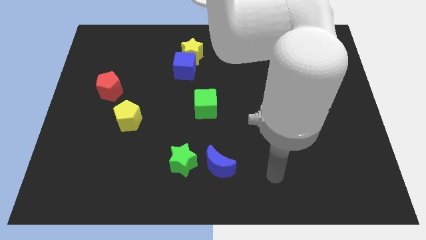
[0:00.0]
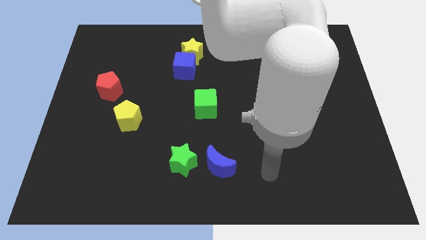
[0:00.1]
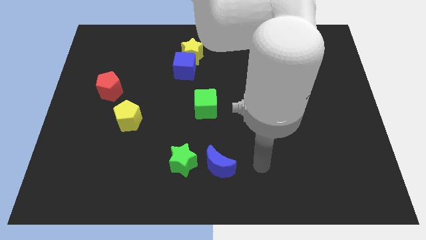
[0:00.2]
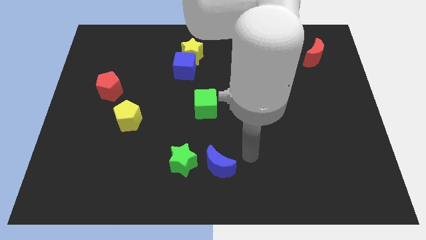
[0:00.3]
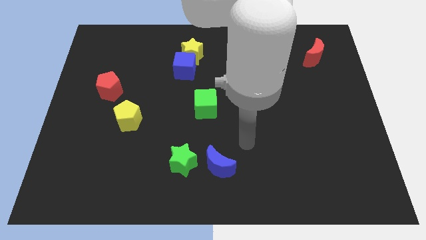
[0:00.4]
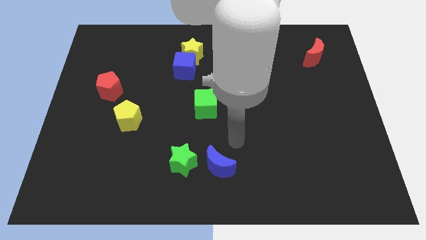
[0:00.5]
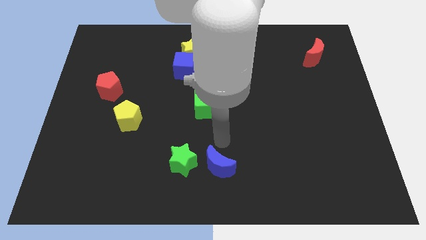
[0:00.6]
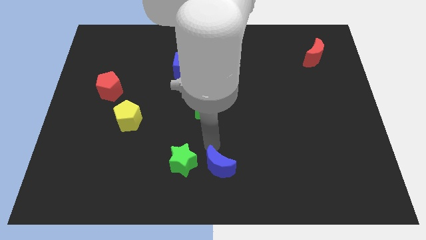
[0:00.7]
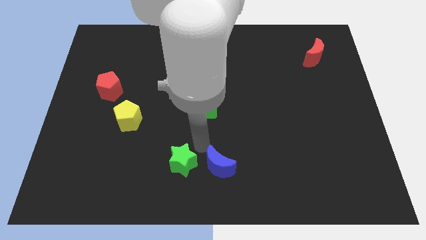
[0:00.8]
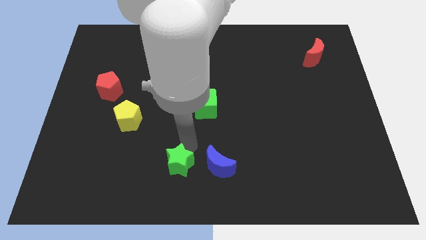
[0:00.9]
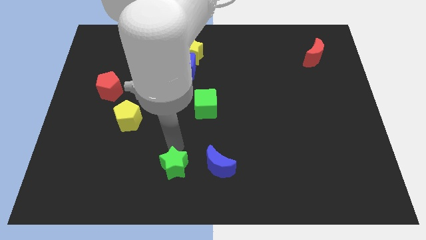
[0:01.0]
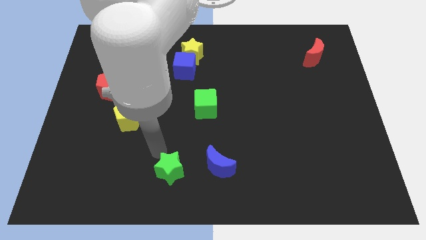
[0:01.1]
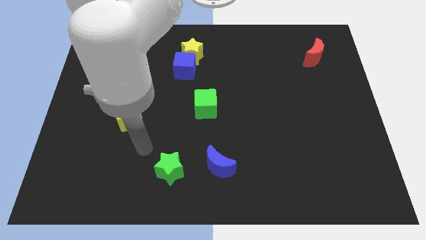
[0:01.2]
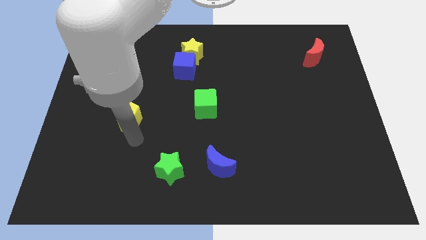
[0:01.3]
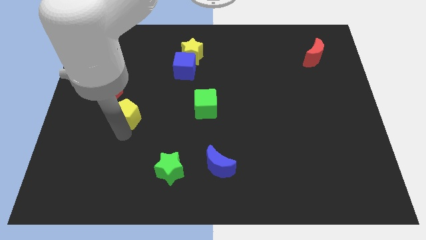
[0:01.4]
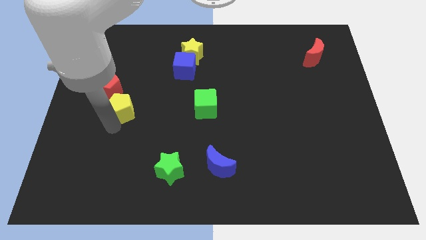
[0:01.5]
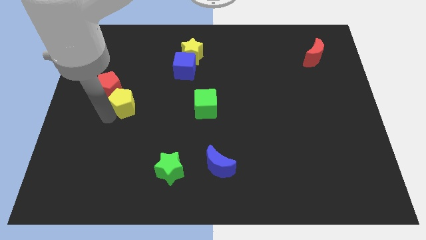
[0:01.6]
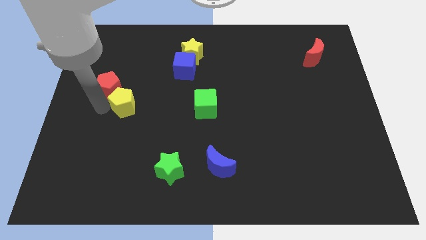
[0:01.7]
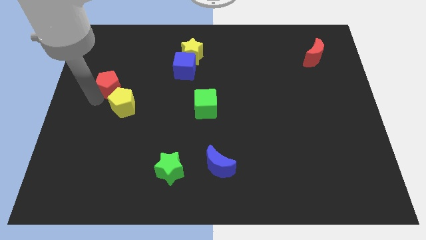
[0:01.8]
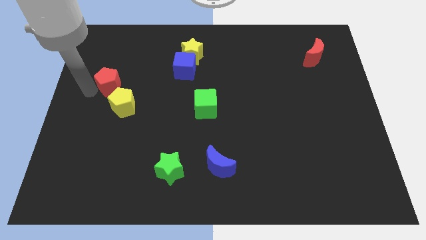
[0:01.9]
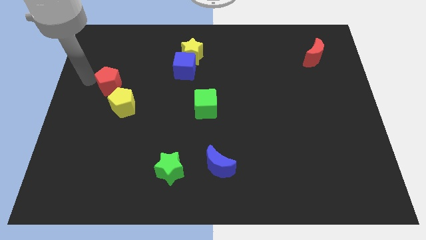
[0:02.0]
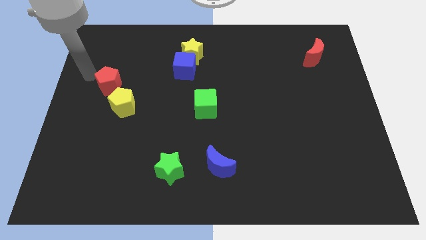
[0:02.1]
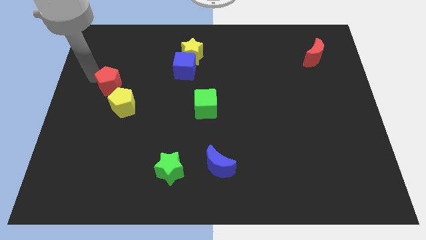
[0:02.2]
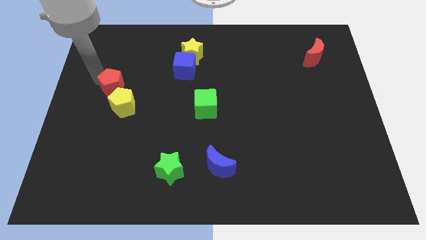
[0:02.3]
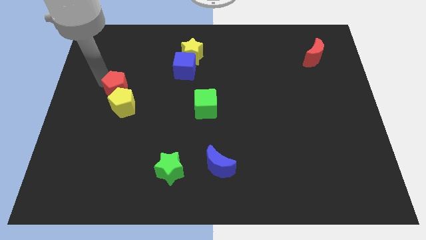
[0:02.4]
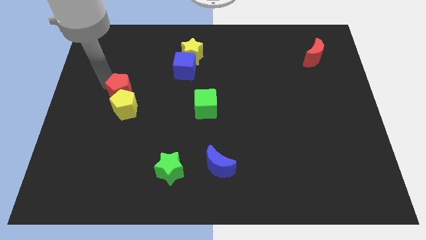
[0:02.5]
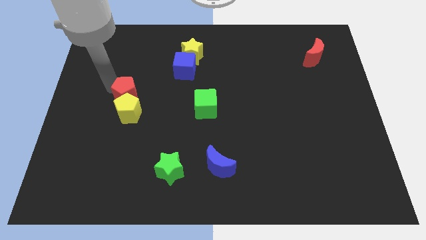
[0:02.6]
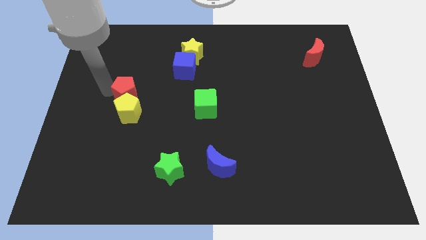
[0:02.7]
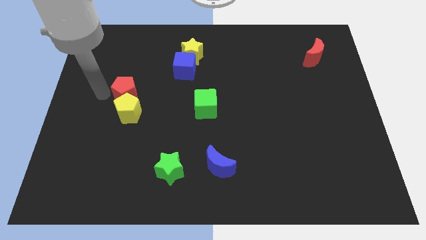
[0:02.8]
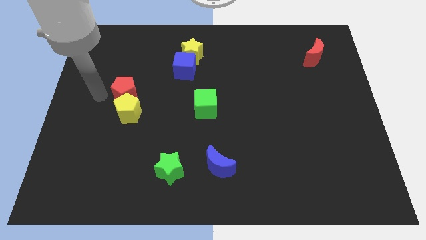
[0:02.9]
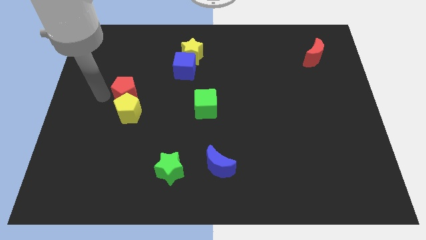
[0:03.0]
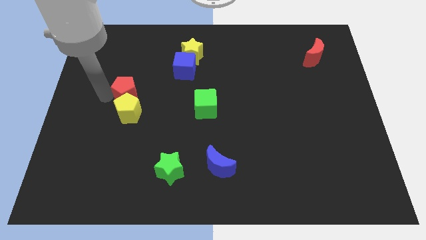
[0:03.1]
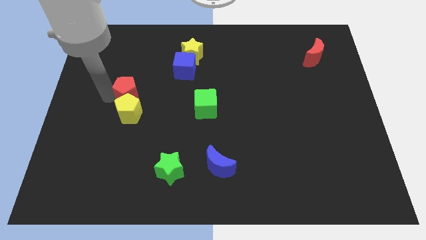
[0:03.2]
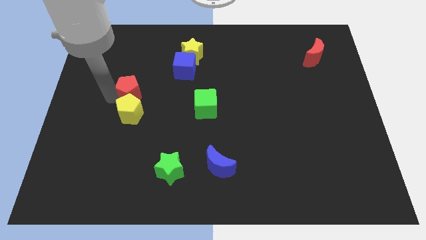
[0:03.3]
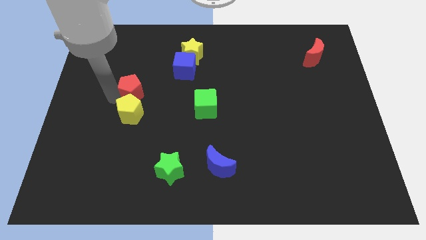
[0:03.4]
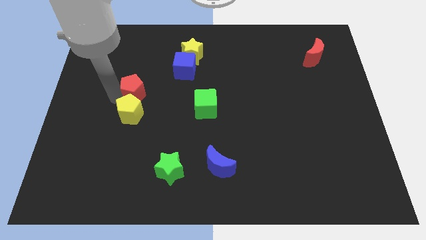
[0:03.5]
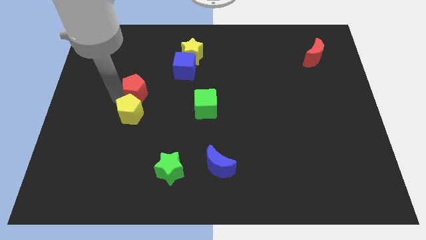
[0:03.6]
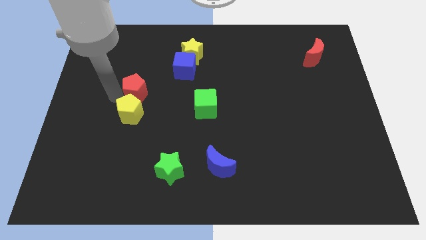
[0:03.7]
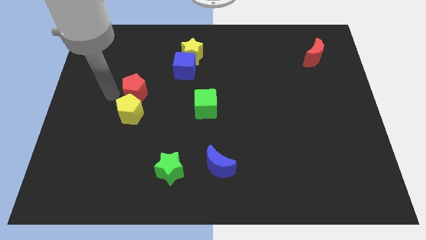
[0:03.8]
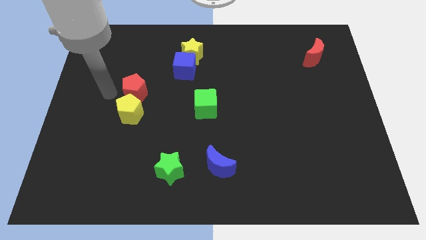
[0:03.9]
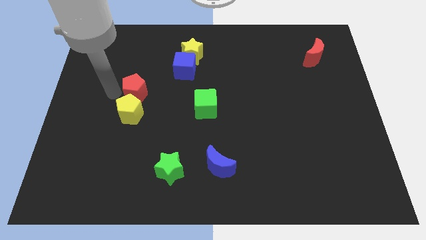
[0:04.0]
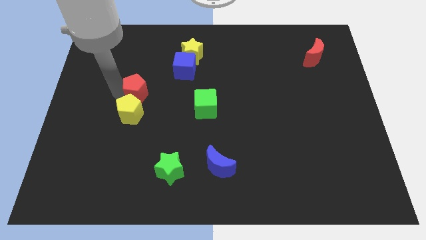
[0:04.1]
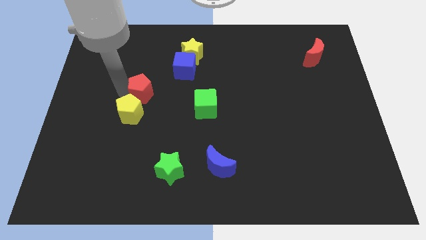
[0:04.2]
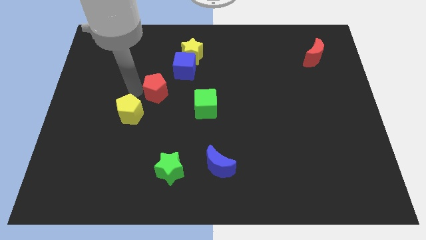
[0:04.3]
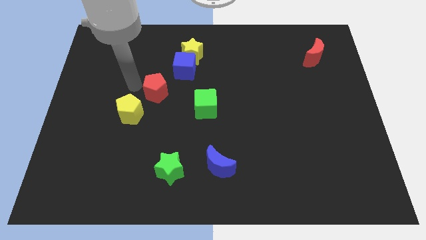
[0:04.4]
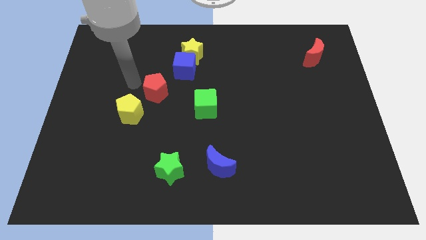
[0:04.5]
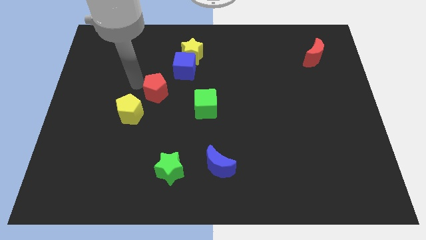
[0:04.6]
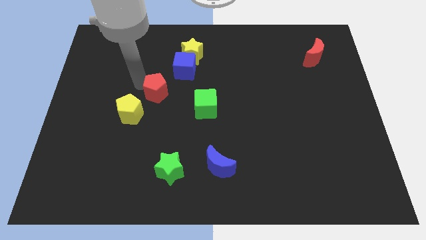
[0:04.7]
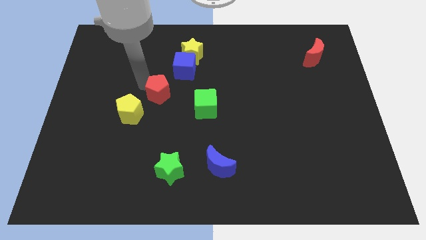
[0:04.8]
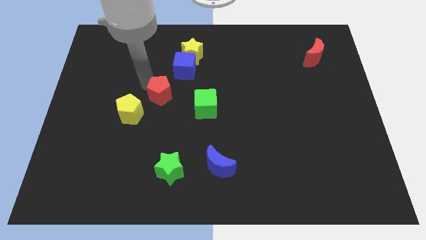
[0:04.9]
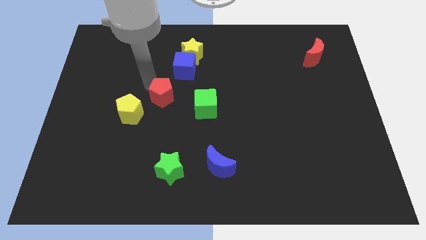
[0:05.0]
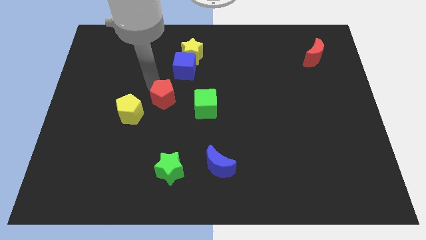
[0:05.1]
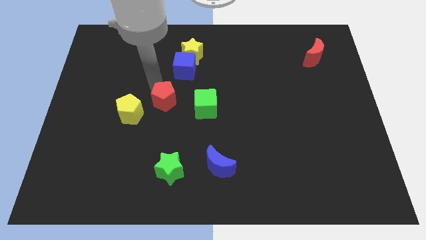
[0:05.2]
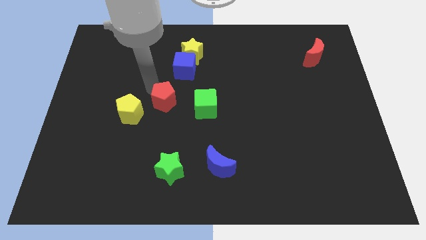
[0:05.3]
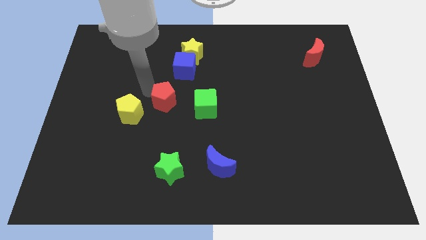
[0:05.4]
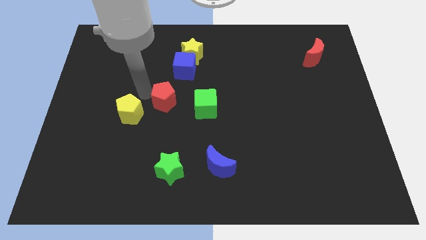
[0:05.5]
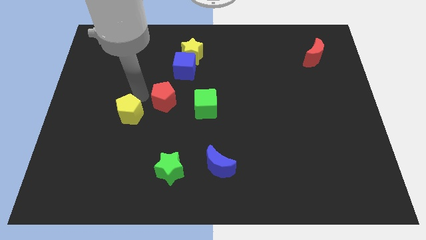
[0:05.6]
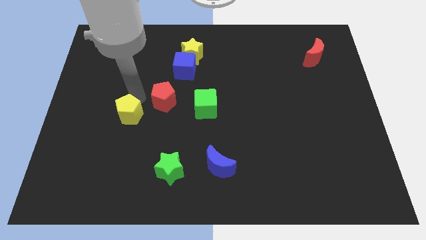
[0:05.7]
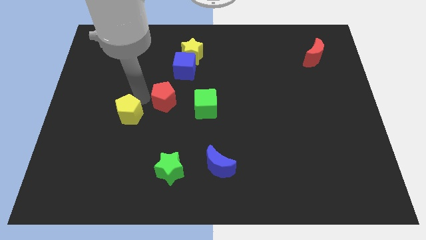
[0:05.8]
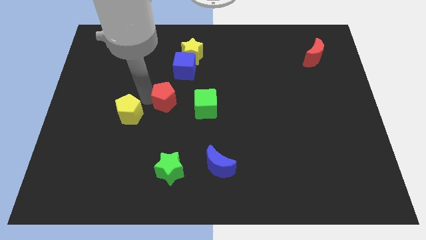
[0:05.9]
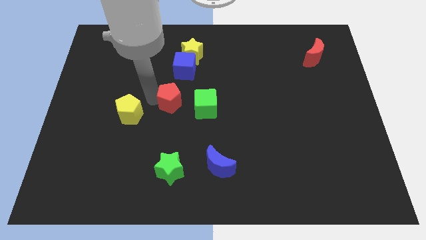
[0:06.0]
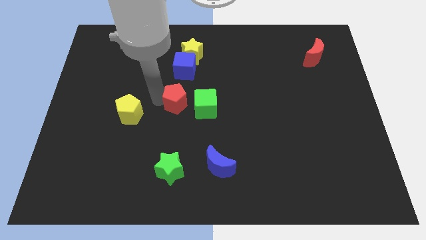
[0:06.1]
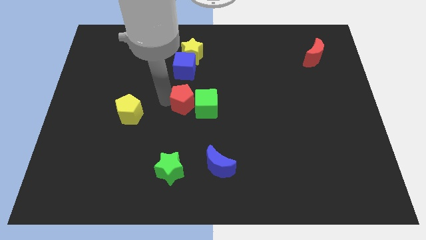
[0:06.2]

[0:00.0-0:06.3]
slide the red pentagon next to the green cube
